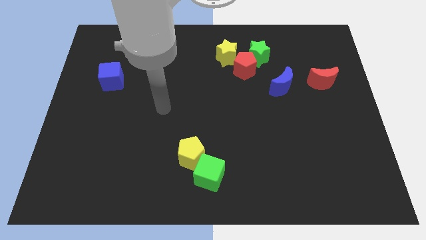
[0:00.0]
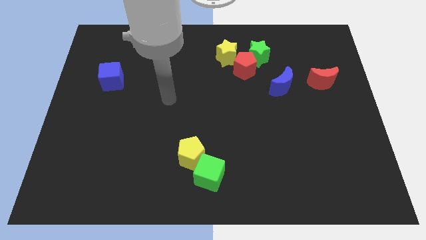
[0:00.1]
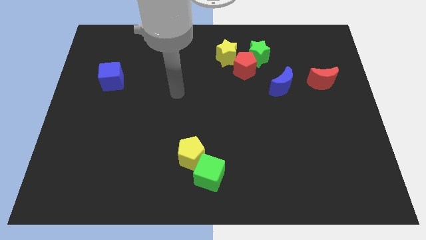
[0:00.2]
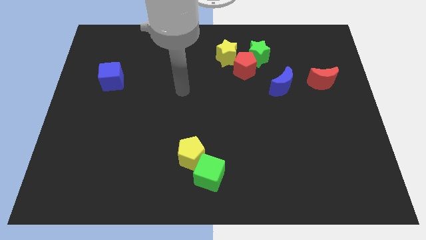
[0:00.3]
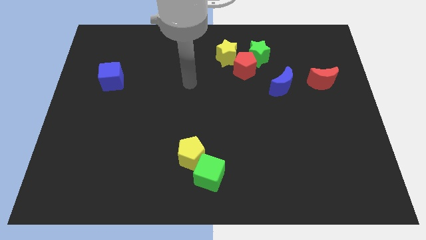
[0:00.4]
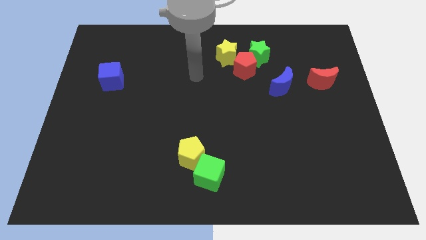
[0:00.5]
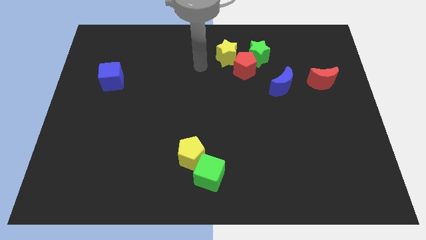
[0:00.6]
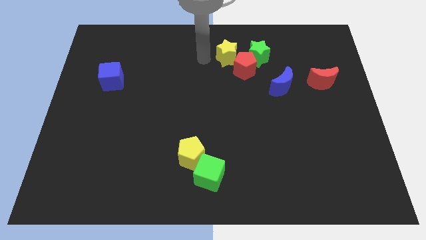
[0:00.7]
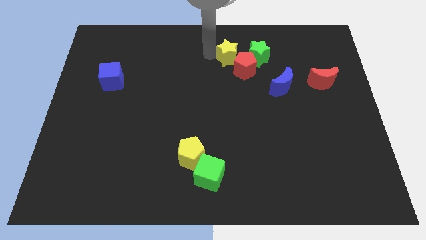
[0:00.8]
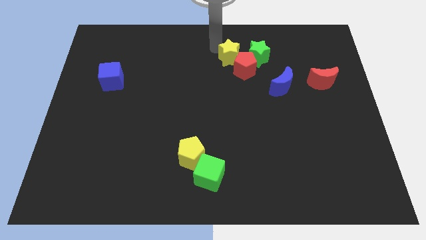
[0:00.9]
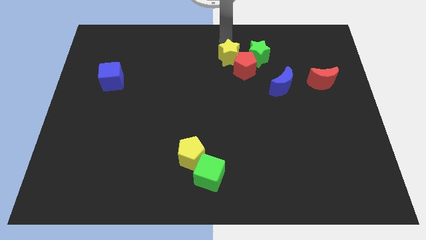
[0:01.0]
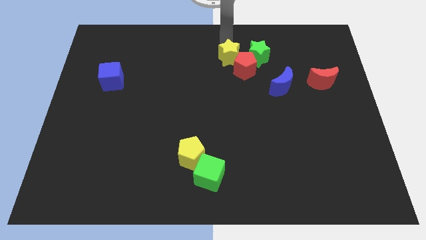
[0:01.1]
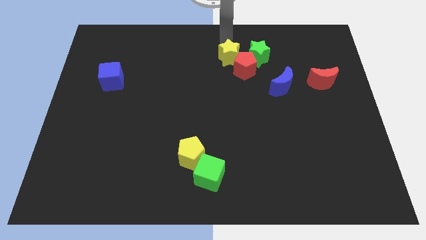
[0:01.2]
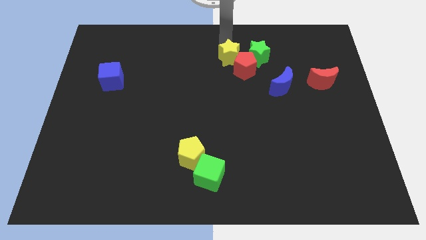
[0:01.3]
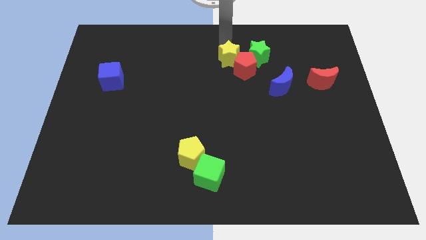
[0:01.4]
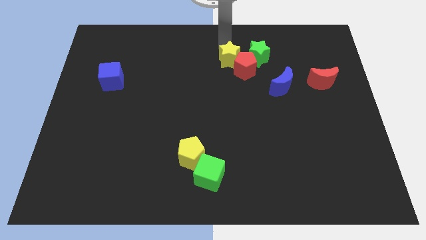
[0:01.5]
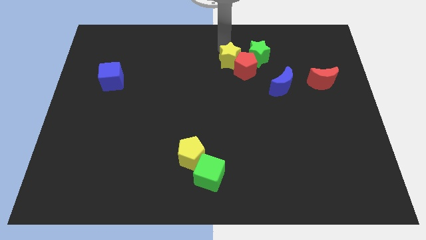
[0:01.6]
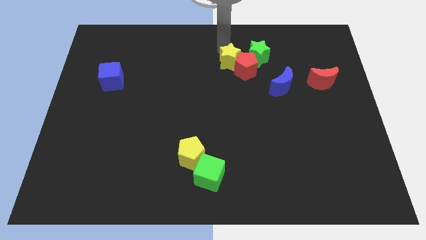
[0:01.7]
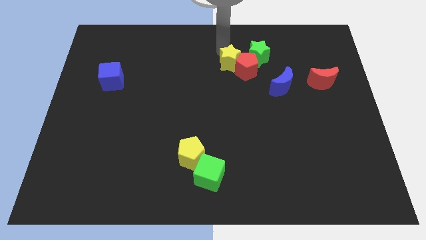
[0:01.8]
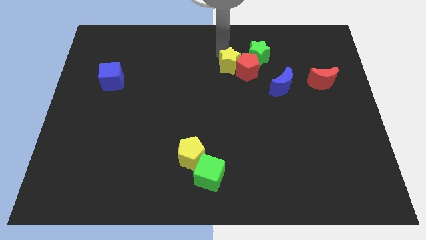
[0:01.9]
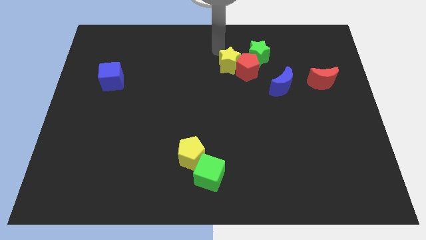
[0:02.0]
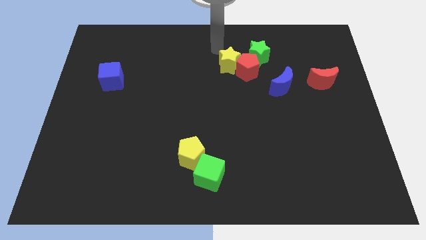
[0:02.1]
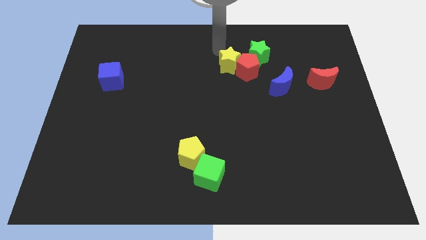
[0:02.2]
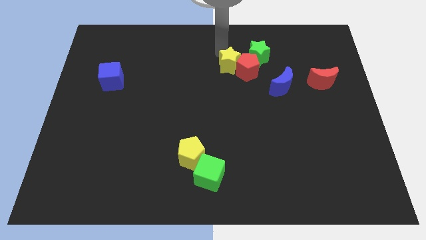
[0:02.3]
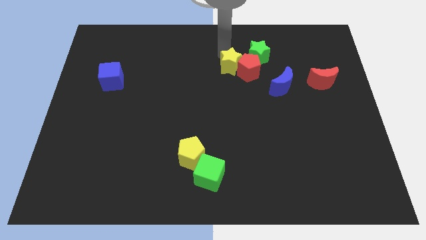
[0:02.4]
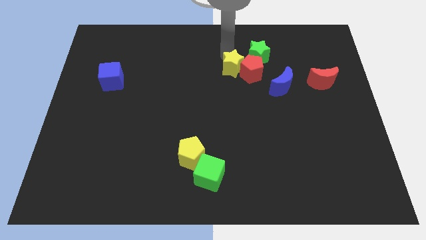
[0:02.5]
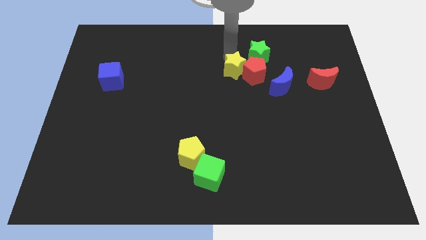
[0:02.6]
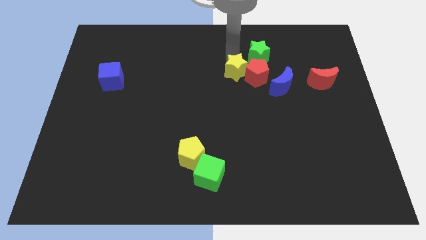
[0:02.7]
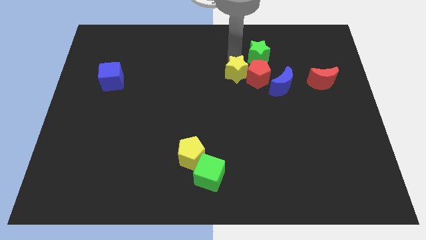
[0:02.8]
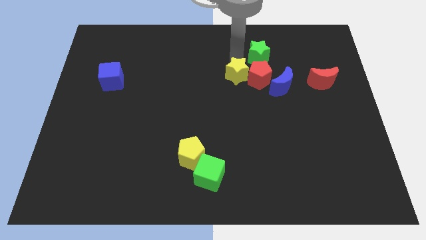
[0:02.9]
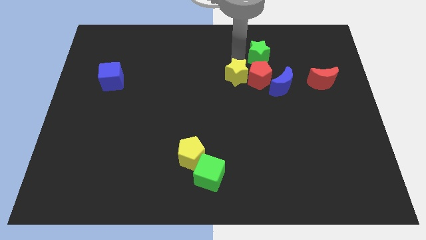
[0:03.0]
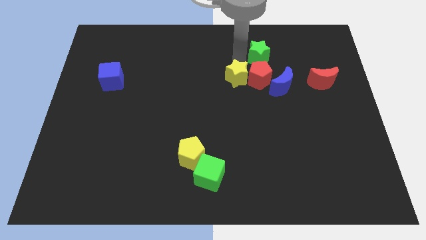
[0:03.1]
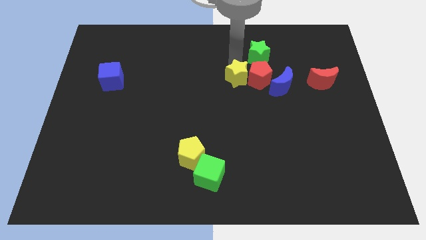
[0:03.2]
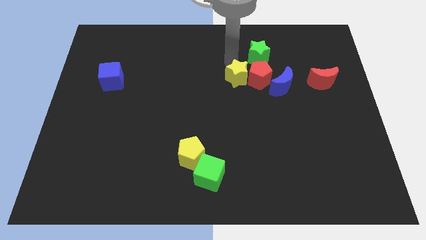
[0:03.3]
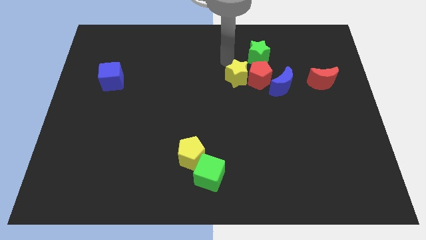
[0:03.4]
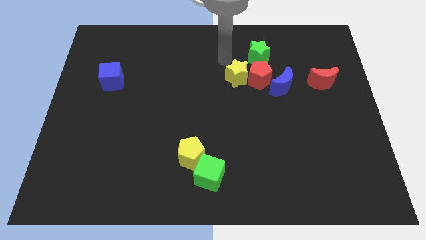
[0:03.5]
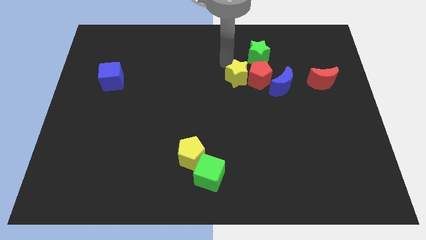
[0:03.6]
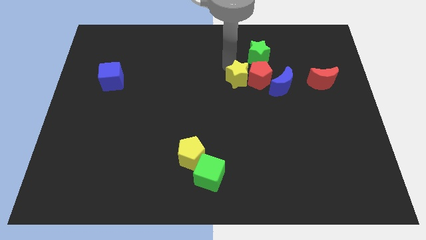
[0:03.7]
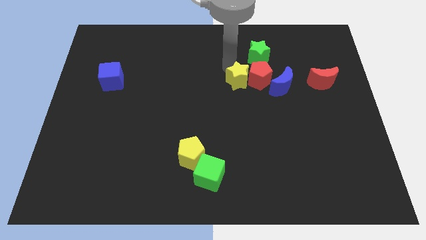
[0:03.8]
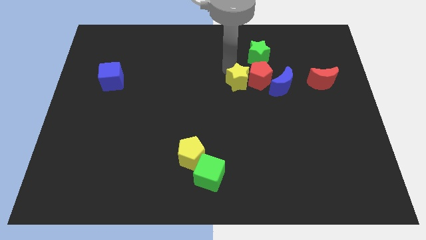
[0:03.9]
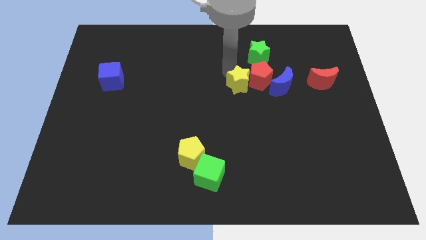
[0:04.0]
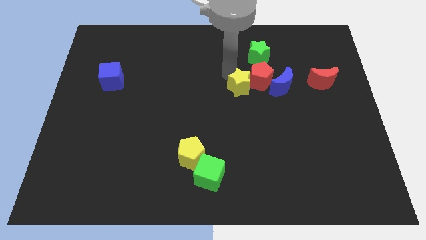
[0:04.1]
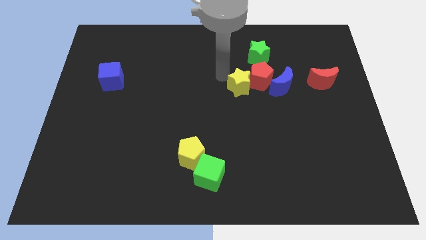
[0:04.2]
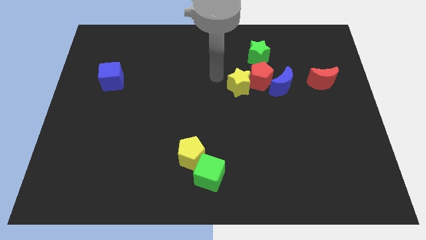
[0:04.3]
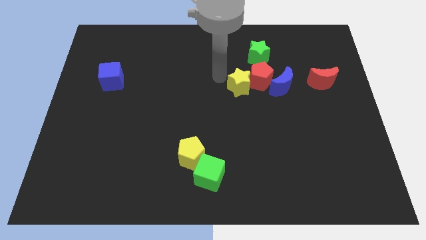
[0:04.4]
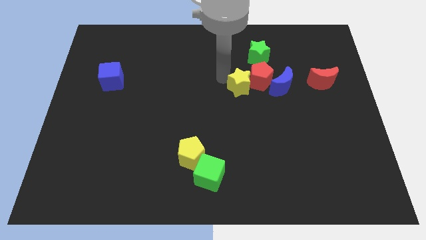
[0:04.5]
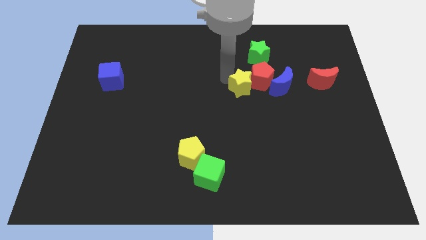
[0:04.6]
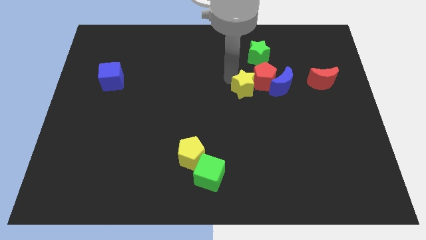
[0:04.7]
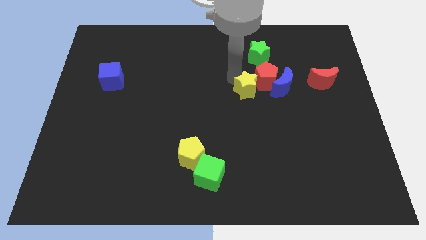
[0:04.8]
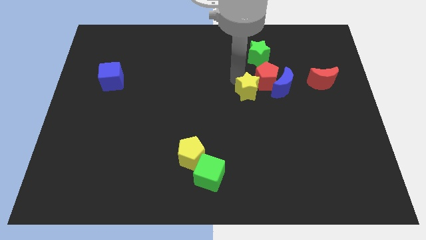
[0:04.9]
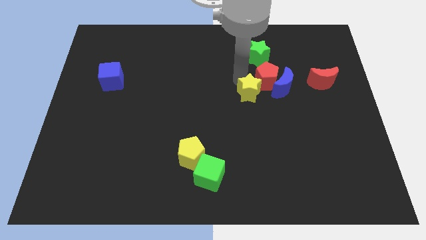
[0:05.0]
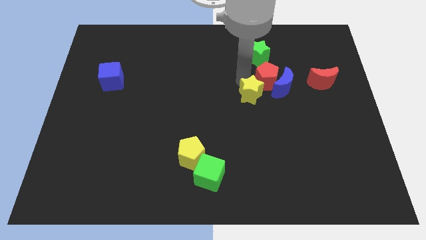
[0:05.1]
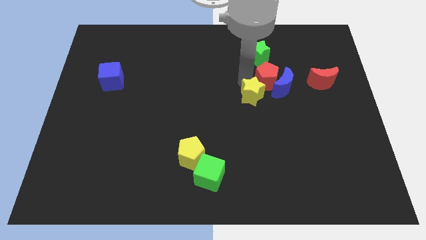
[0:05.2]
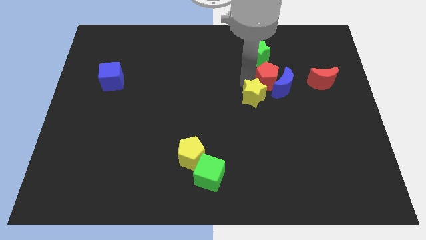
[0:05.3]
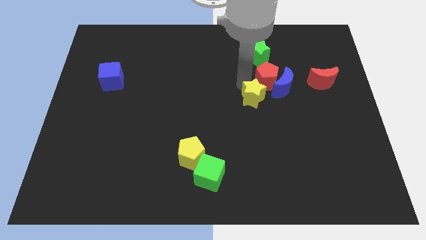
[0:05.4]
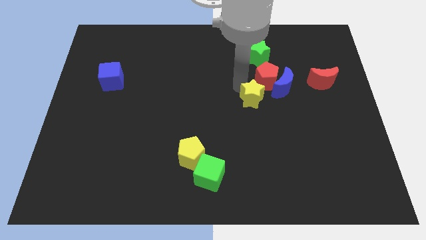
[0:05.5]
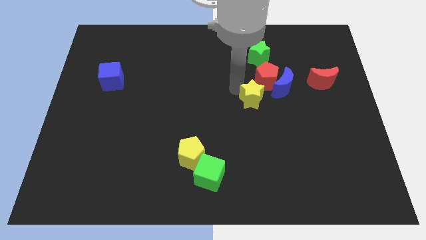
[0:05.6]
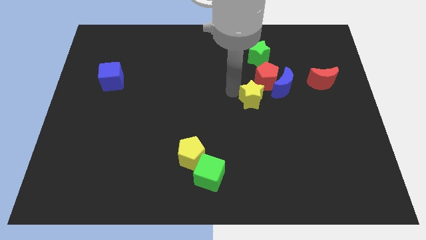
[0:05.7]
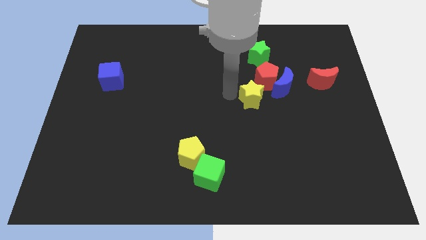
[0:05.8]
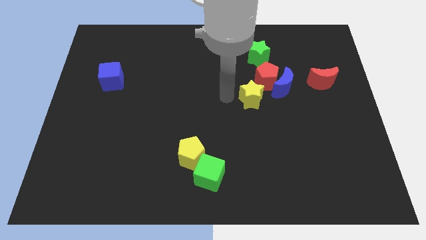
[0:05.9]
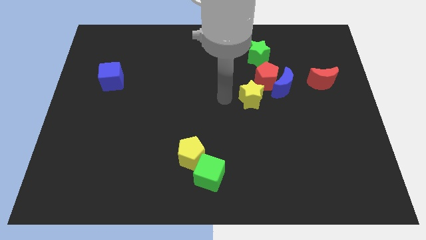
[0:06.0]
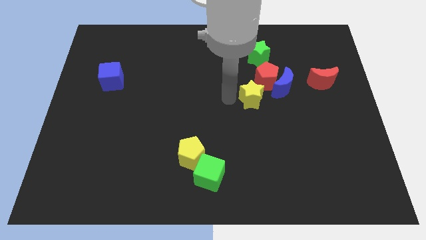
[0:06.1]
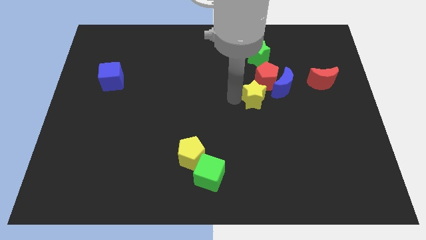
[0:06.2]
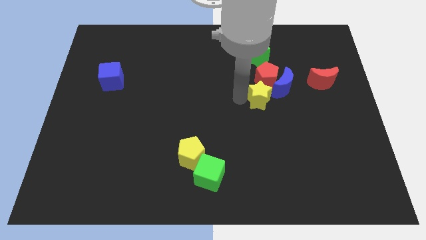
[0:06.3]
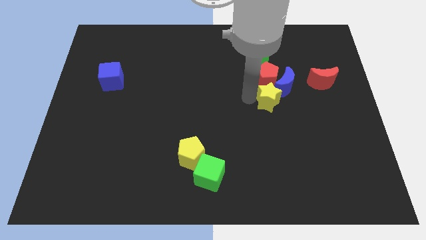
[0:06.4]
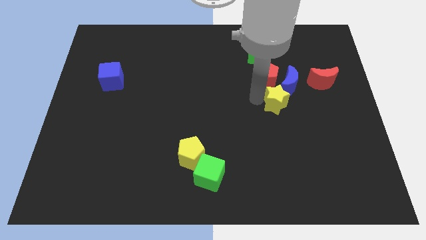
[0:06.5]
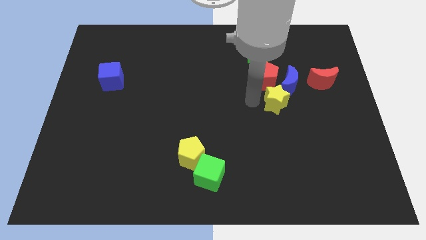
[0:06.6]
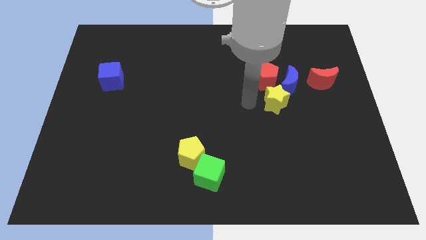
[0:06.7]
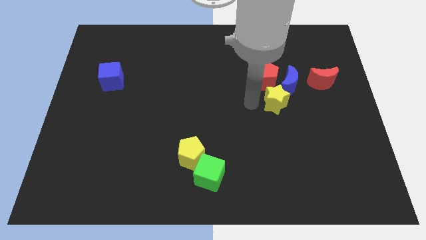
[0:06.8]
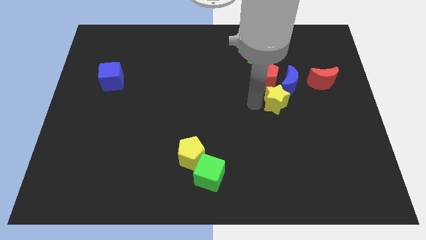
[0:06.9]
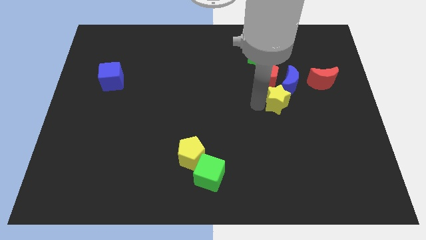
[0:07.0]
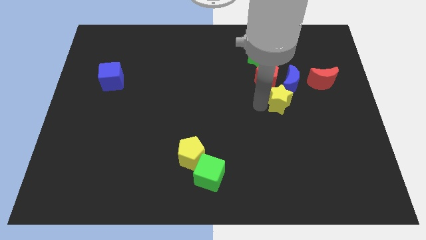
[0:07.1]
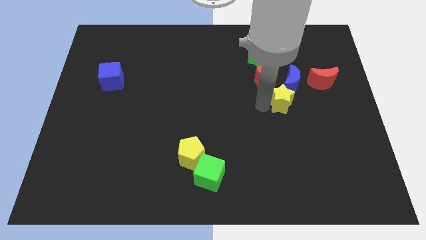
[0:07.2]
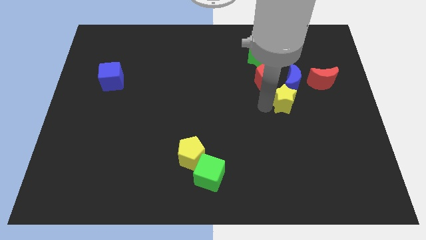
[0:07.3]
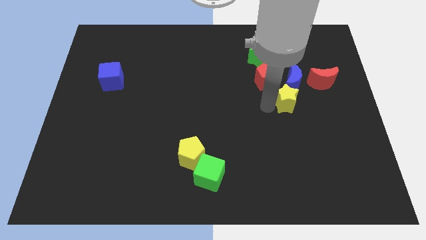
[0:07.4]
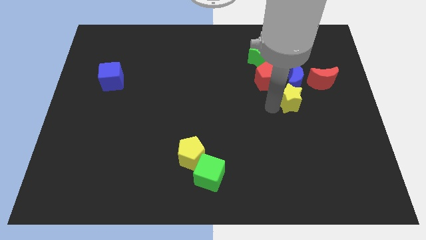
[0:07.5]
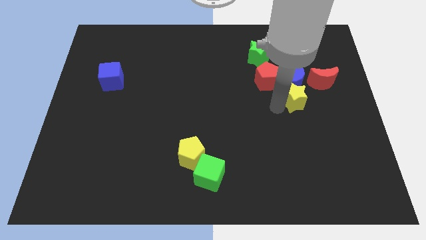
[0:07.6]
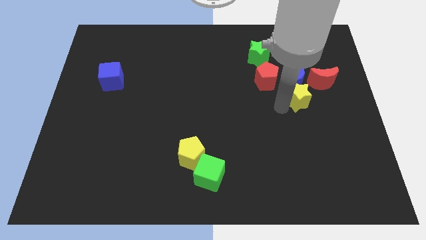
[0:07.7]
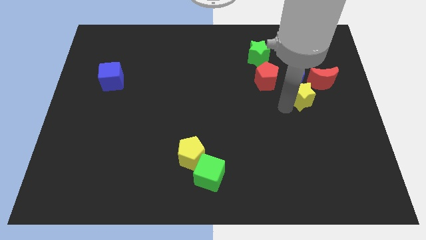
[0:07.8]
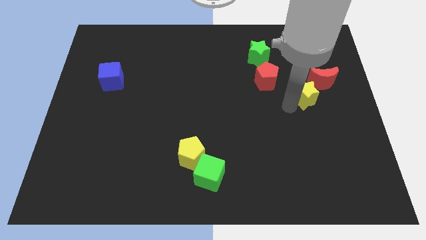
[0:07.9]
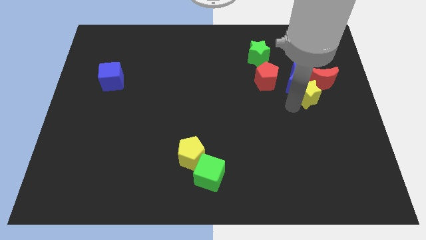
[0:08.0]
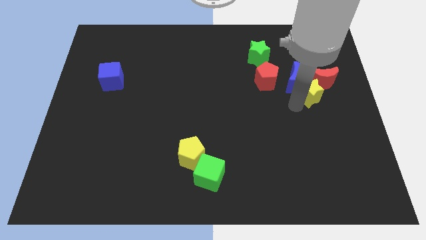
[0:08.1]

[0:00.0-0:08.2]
slide the yellow star towards the red moon
